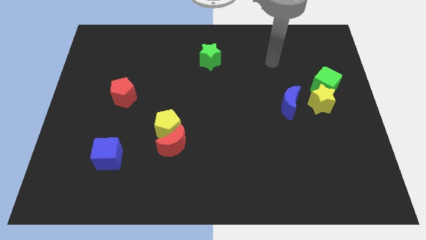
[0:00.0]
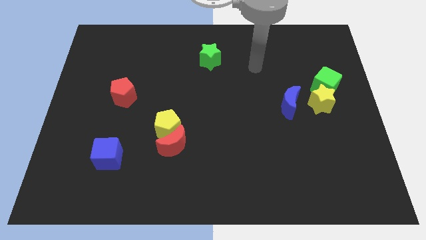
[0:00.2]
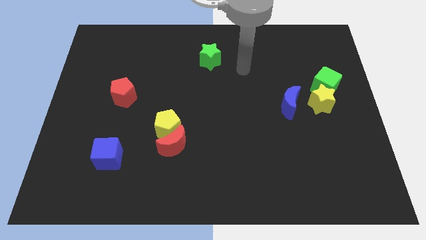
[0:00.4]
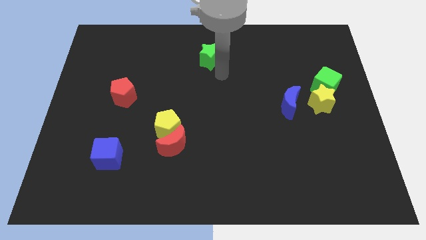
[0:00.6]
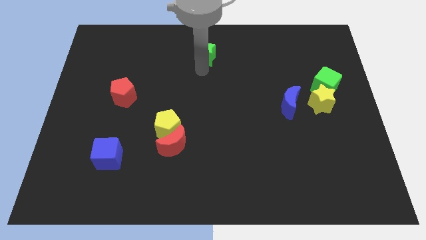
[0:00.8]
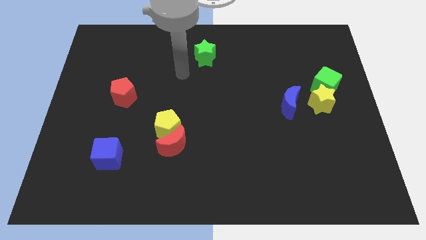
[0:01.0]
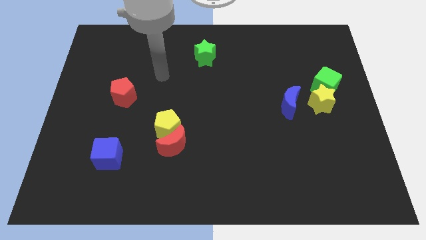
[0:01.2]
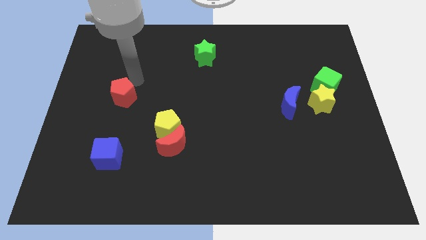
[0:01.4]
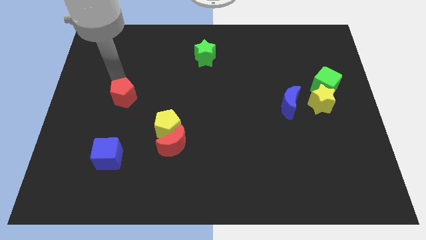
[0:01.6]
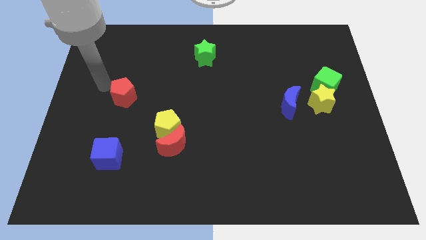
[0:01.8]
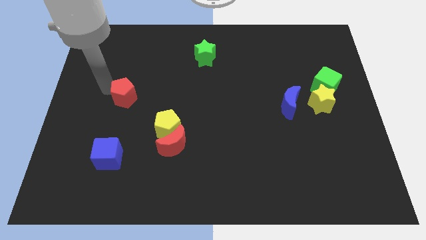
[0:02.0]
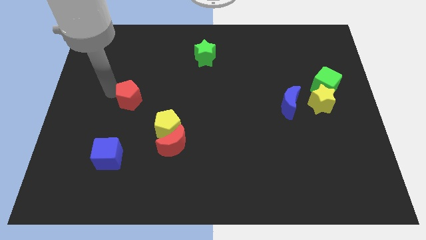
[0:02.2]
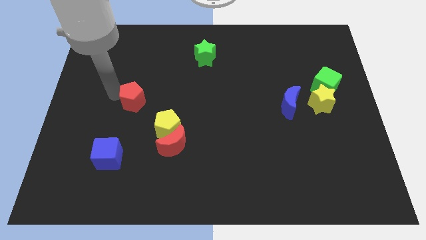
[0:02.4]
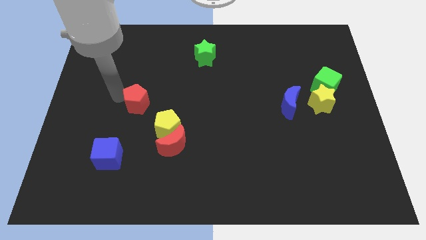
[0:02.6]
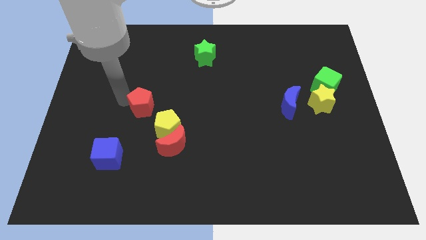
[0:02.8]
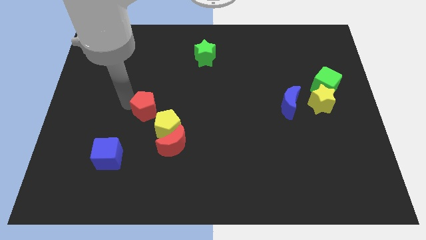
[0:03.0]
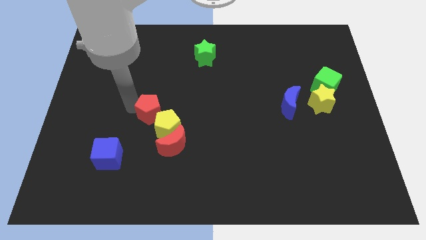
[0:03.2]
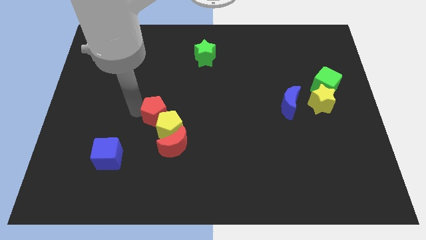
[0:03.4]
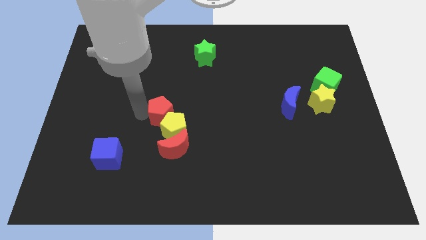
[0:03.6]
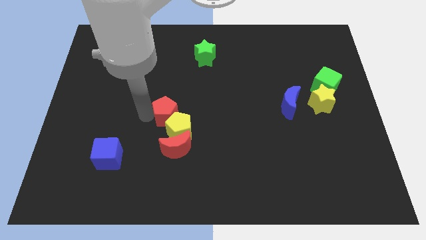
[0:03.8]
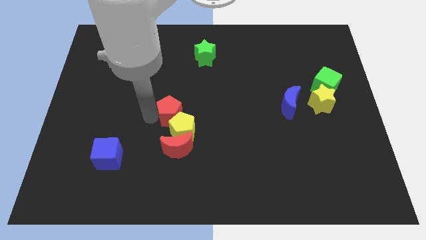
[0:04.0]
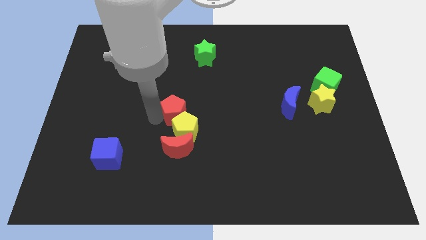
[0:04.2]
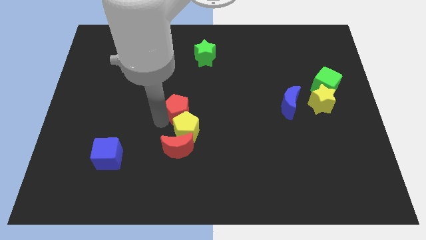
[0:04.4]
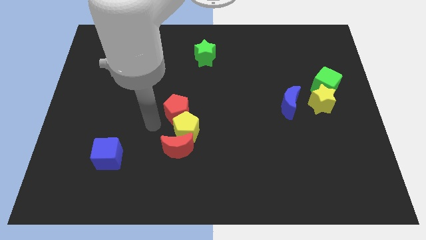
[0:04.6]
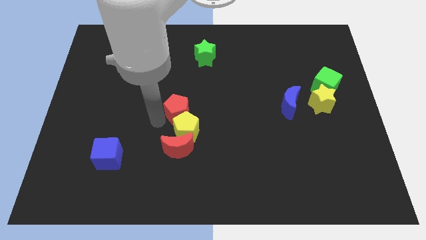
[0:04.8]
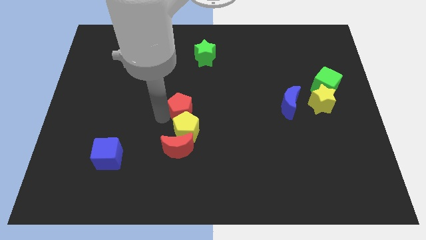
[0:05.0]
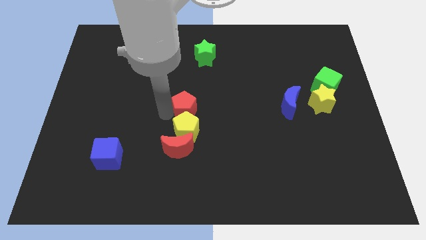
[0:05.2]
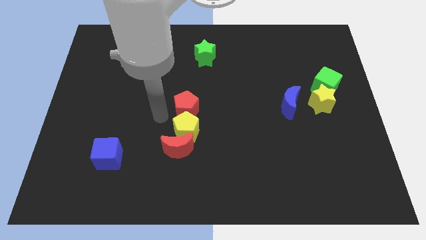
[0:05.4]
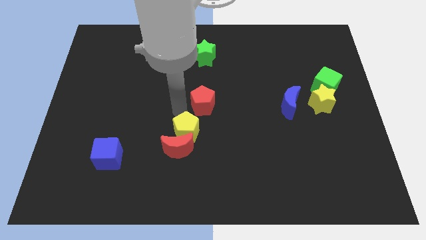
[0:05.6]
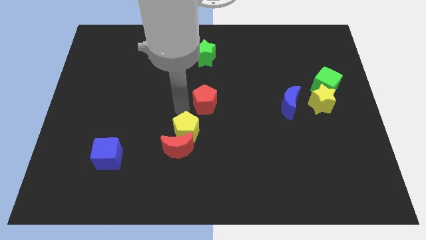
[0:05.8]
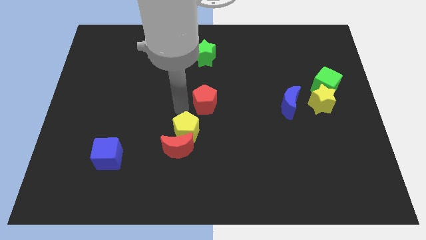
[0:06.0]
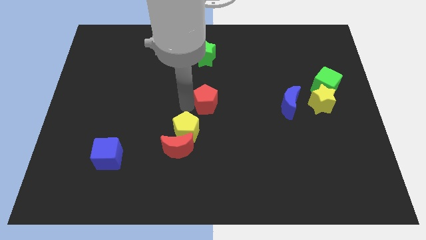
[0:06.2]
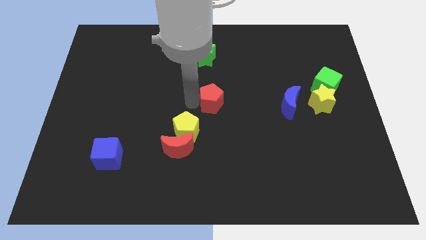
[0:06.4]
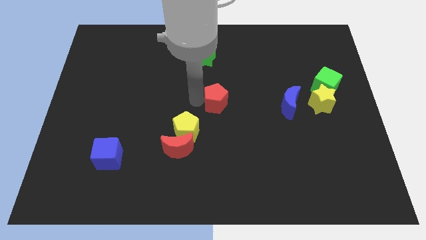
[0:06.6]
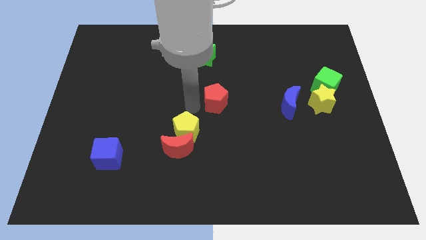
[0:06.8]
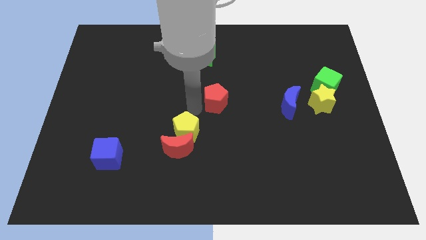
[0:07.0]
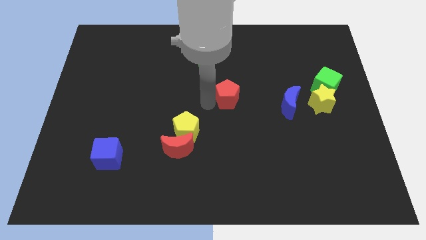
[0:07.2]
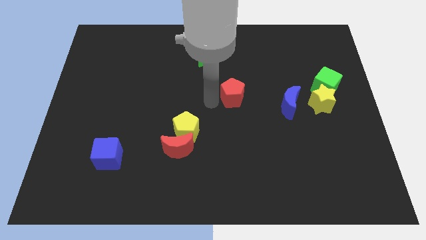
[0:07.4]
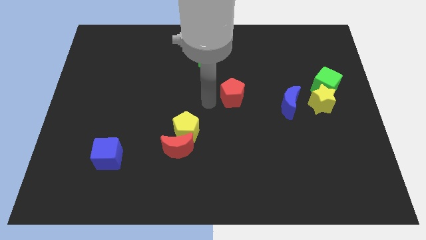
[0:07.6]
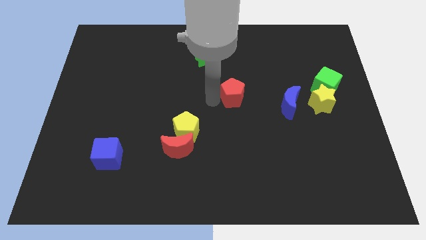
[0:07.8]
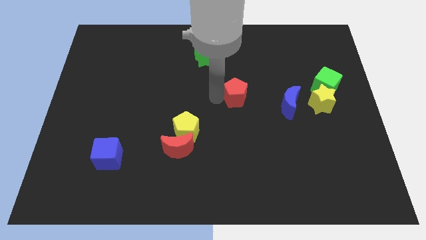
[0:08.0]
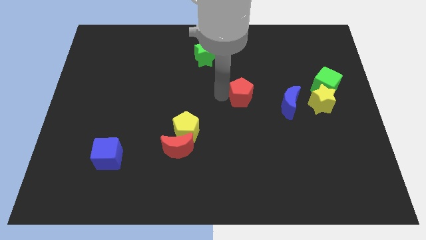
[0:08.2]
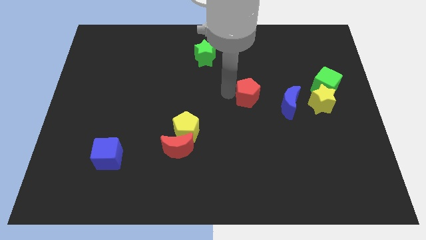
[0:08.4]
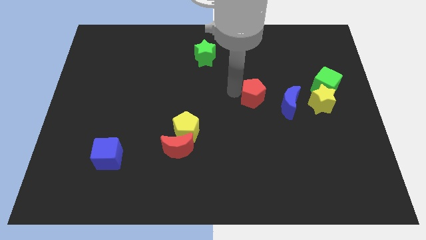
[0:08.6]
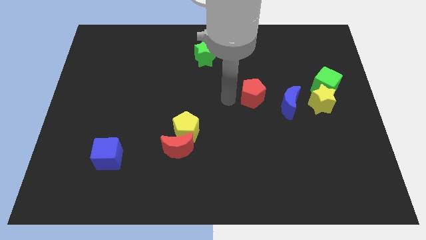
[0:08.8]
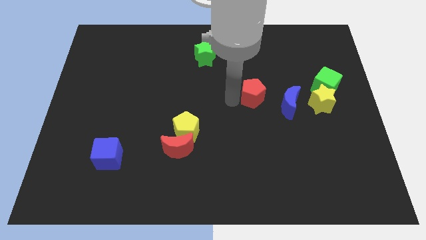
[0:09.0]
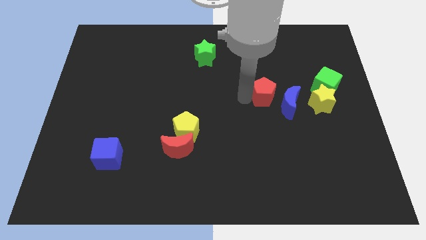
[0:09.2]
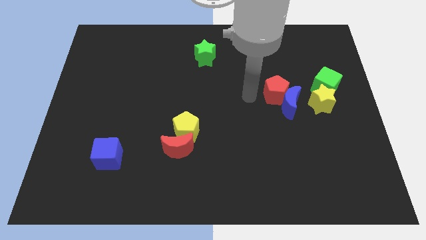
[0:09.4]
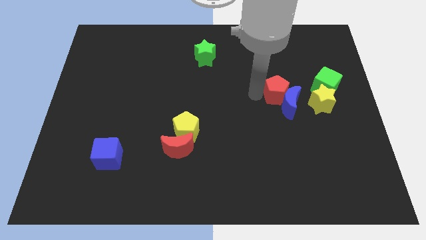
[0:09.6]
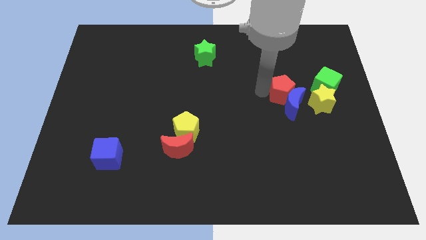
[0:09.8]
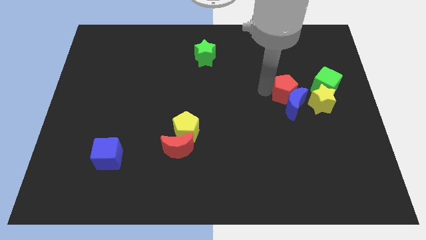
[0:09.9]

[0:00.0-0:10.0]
slide the red pentagon diagonally up and to the right of the blue moon

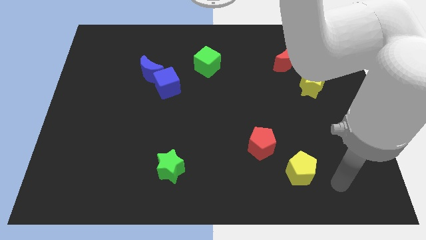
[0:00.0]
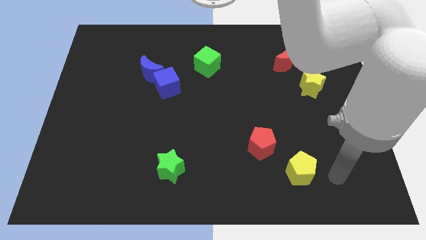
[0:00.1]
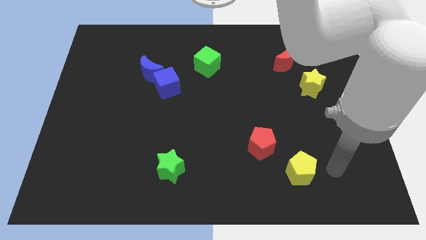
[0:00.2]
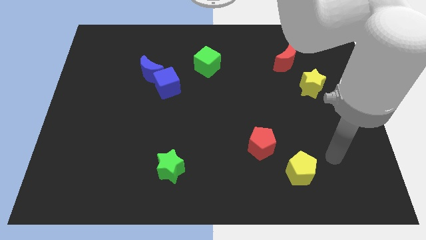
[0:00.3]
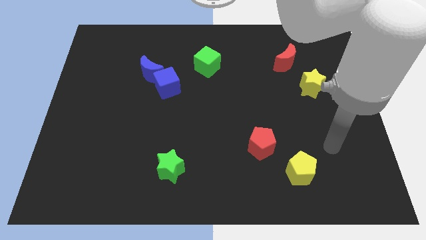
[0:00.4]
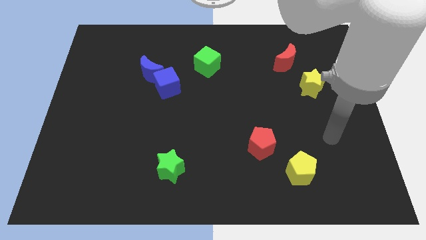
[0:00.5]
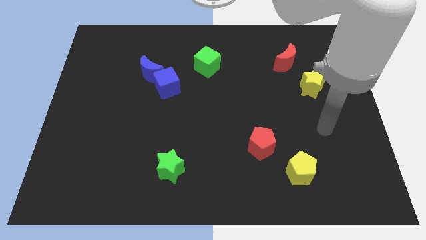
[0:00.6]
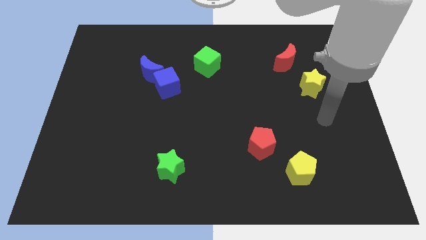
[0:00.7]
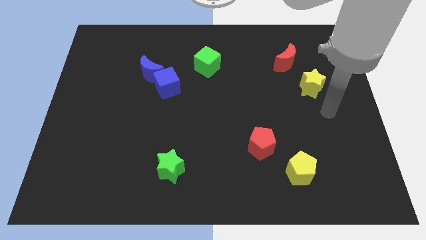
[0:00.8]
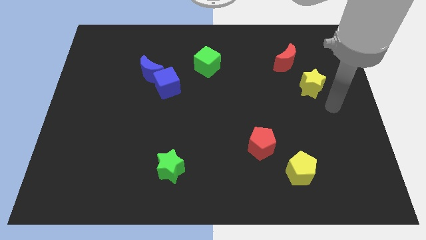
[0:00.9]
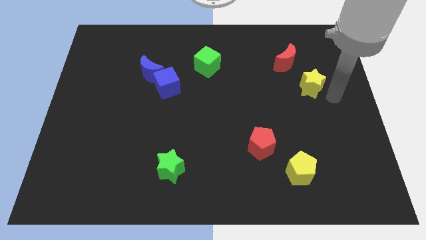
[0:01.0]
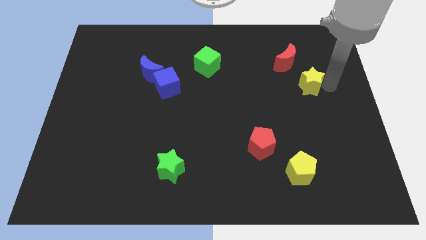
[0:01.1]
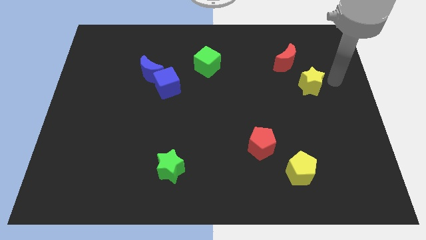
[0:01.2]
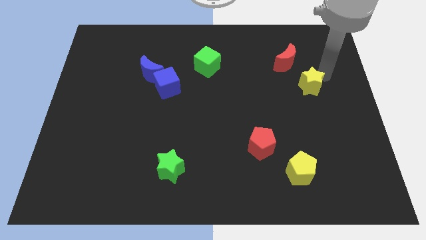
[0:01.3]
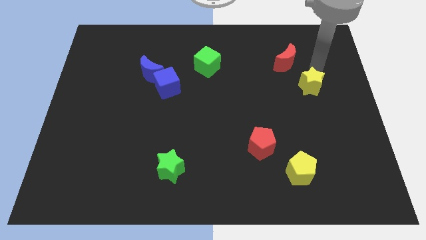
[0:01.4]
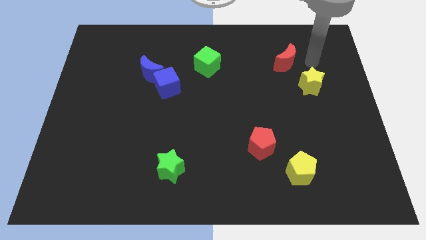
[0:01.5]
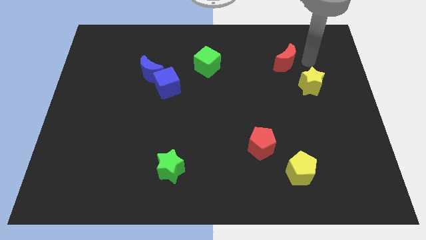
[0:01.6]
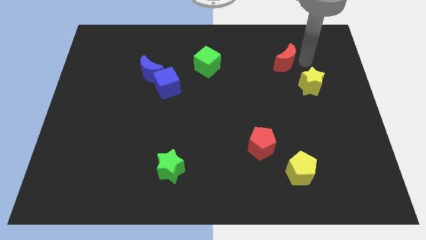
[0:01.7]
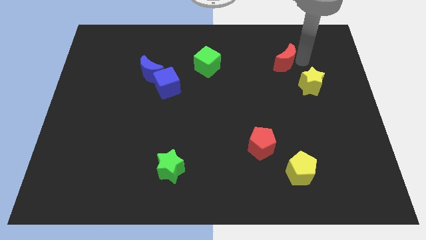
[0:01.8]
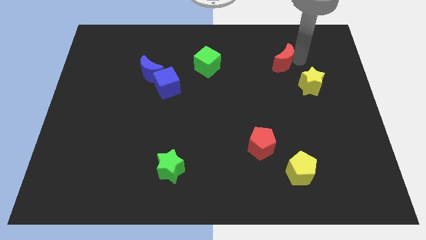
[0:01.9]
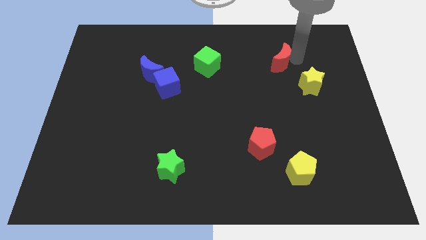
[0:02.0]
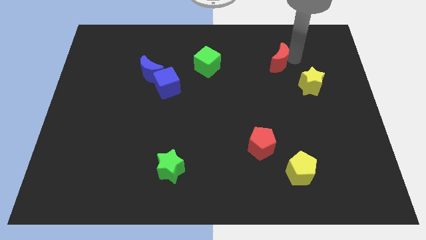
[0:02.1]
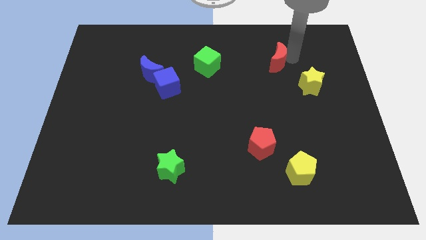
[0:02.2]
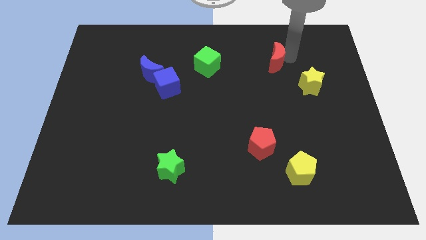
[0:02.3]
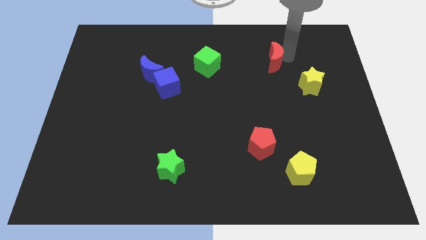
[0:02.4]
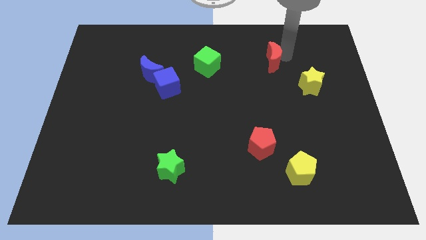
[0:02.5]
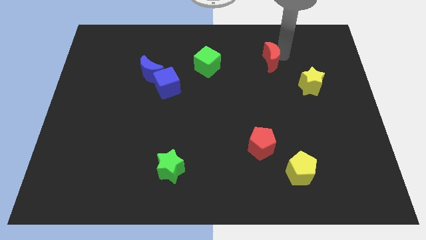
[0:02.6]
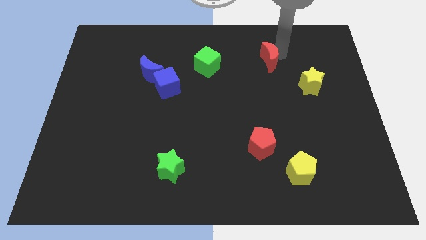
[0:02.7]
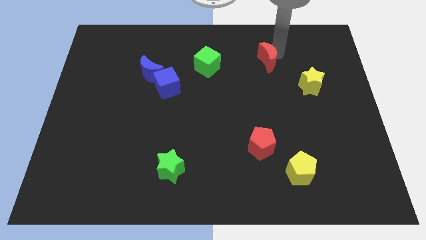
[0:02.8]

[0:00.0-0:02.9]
move the red moon just right of the green cube
